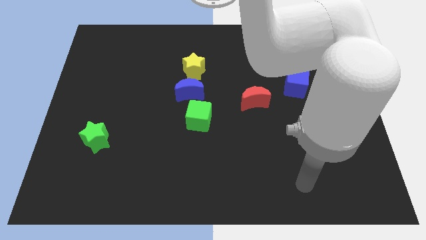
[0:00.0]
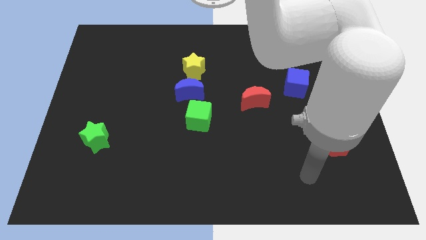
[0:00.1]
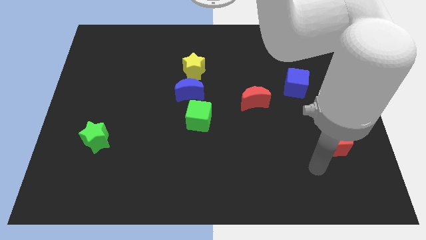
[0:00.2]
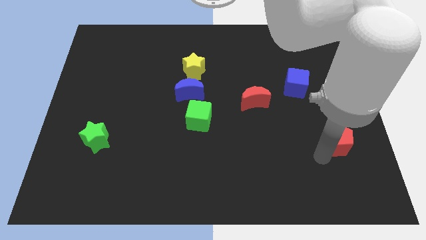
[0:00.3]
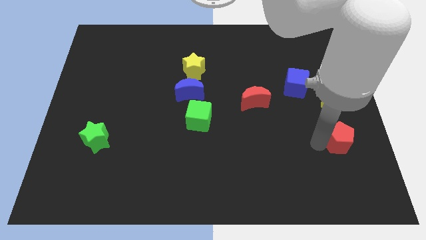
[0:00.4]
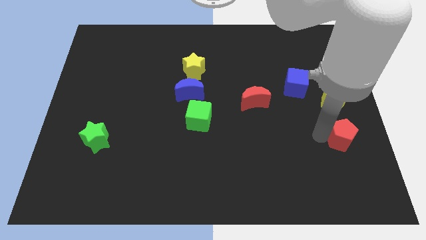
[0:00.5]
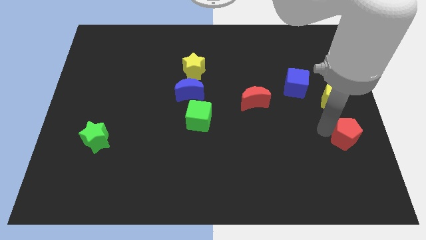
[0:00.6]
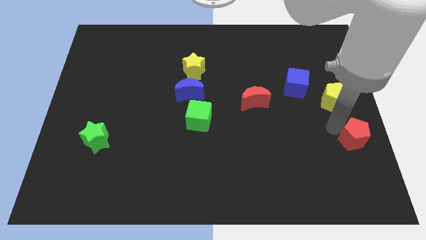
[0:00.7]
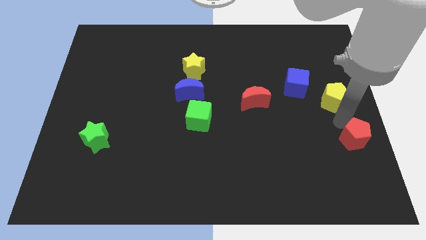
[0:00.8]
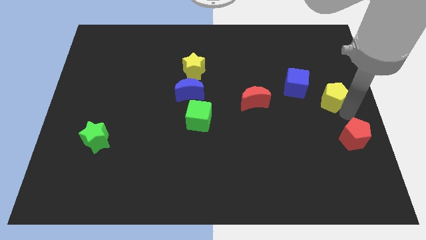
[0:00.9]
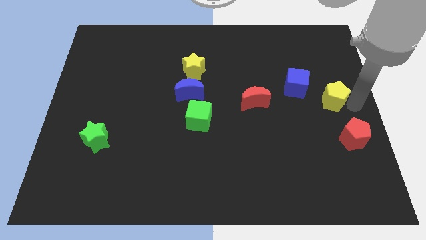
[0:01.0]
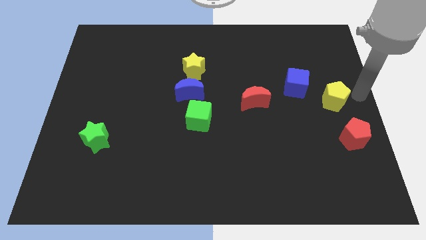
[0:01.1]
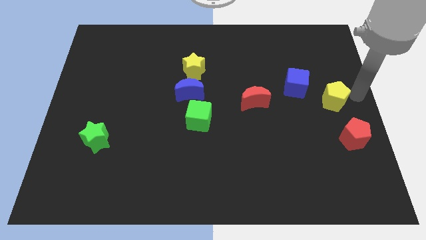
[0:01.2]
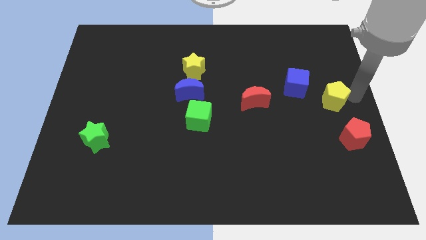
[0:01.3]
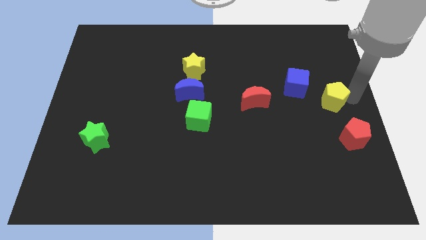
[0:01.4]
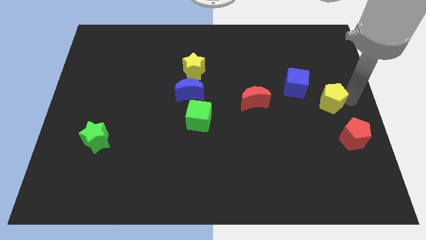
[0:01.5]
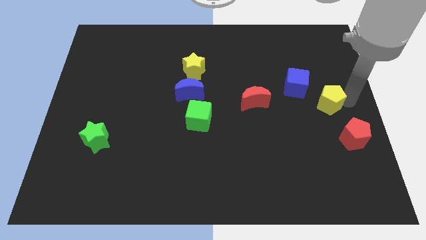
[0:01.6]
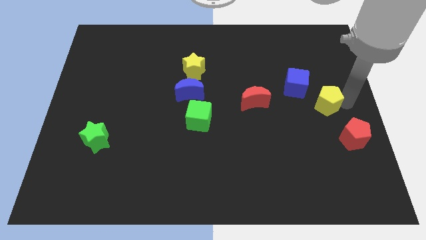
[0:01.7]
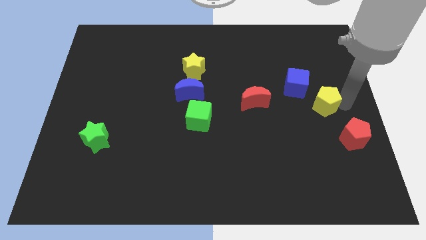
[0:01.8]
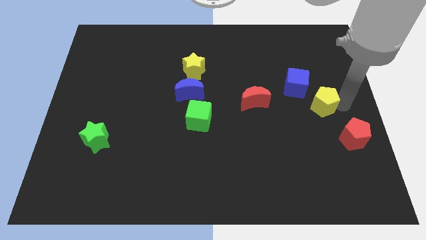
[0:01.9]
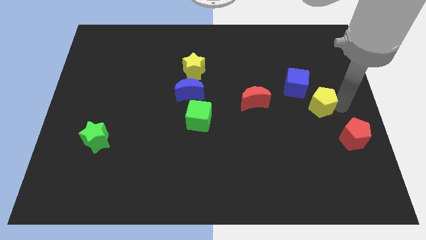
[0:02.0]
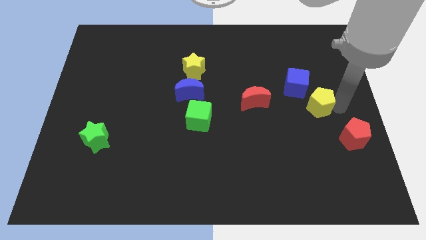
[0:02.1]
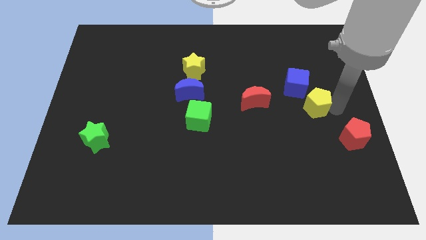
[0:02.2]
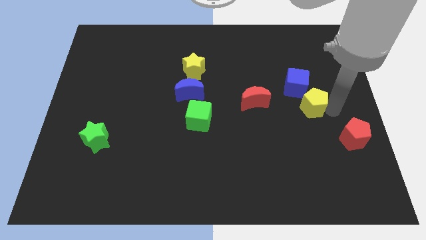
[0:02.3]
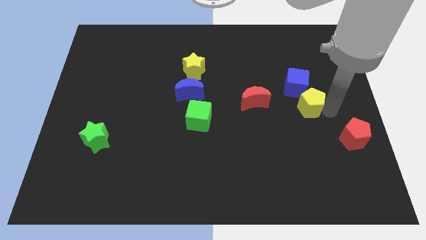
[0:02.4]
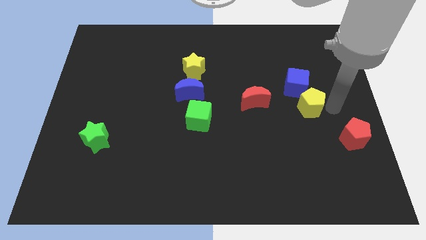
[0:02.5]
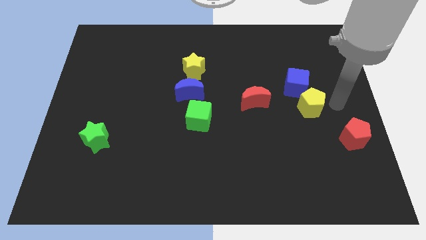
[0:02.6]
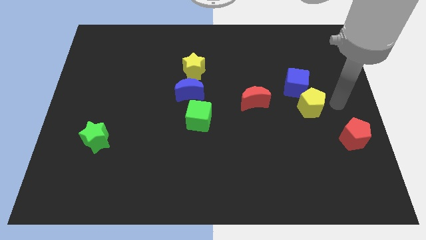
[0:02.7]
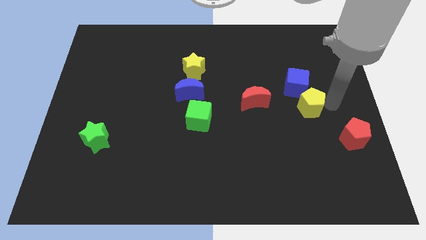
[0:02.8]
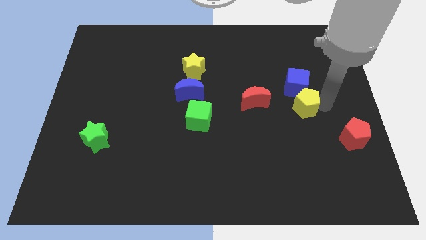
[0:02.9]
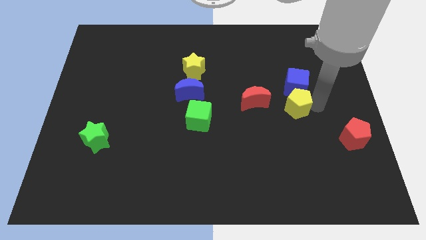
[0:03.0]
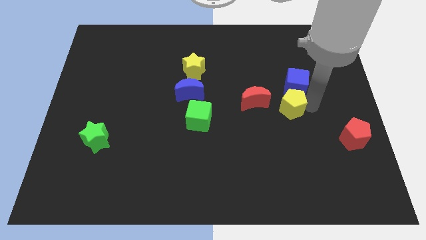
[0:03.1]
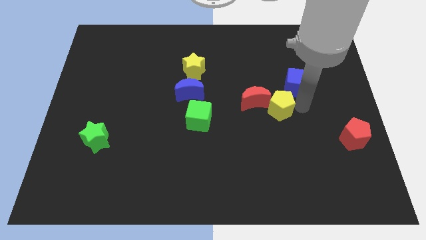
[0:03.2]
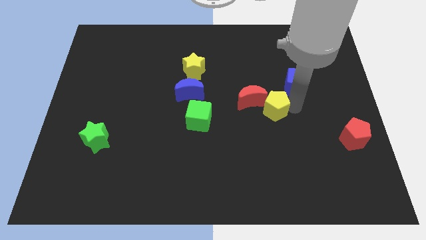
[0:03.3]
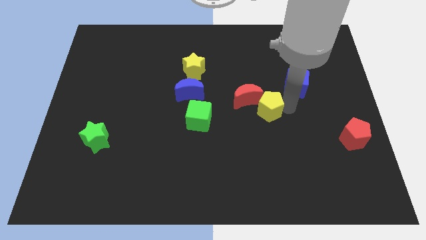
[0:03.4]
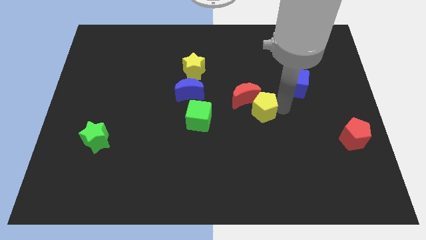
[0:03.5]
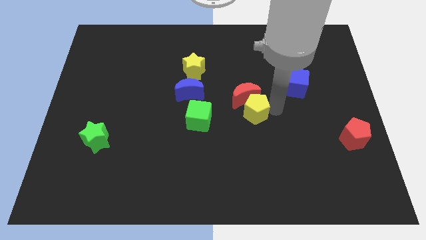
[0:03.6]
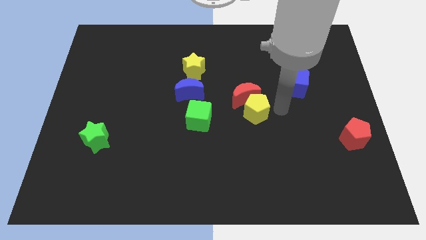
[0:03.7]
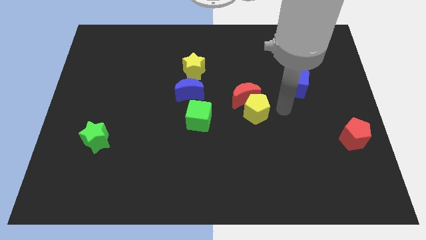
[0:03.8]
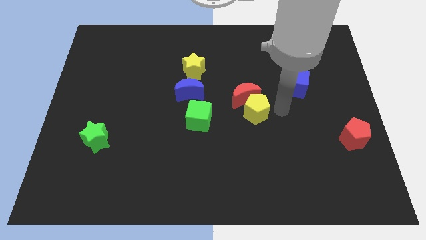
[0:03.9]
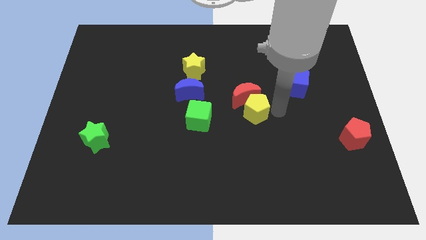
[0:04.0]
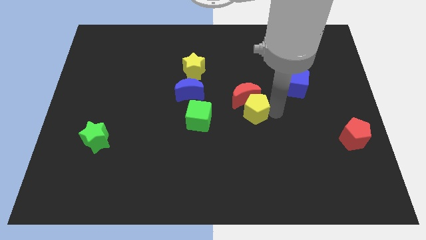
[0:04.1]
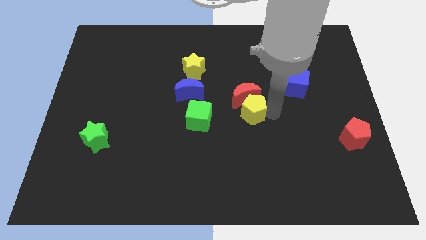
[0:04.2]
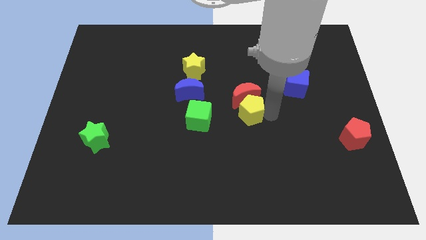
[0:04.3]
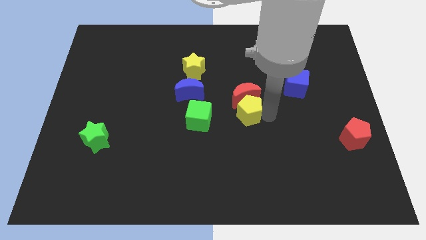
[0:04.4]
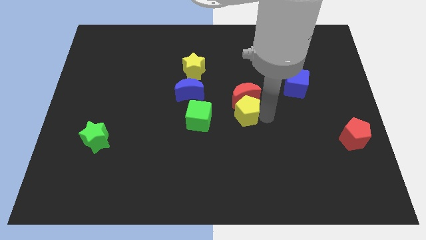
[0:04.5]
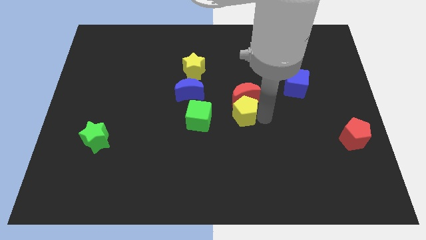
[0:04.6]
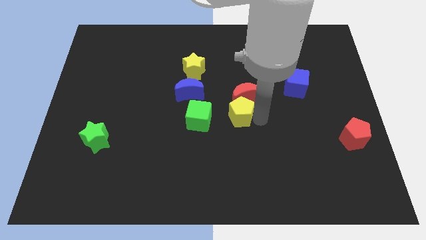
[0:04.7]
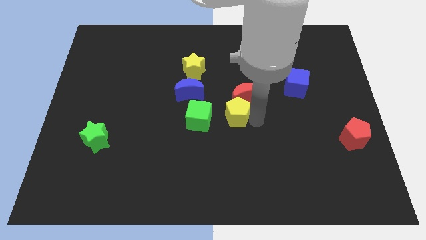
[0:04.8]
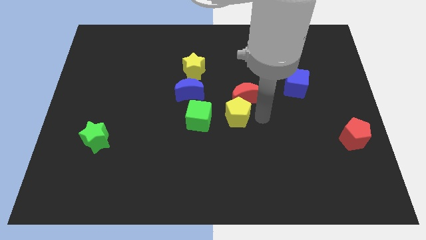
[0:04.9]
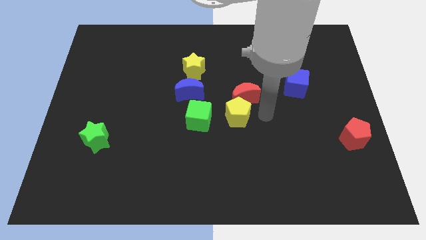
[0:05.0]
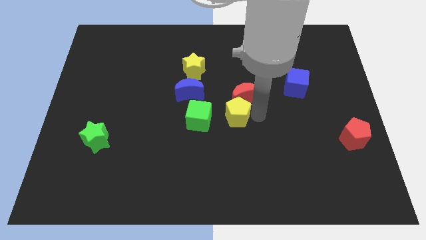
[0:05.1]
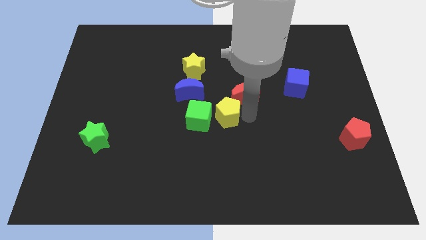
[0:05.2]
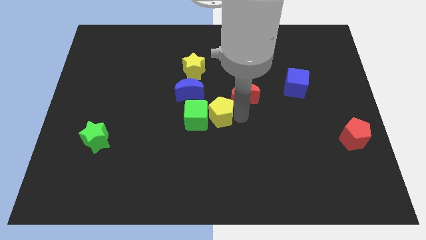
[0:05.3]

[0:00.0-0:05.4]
put the yellow pentagon close to the green cube

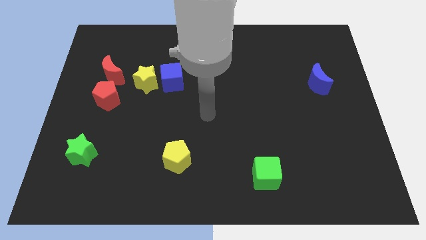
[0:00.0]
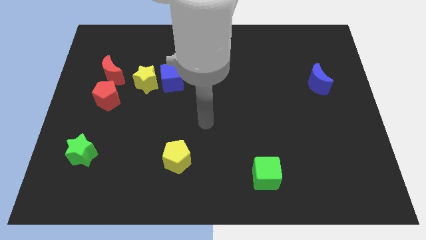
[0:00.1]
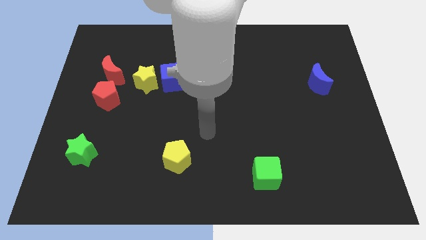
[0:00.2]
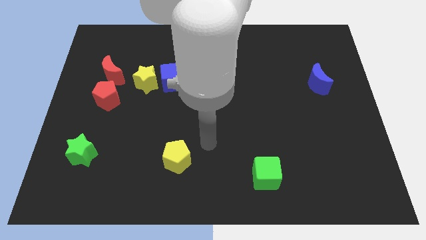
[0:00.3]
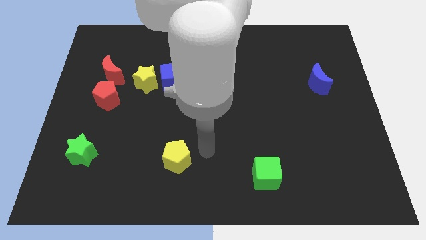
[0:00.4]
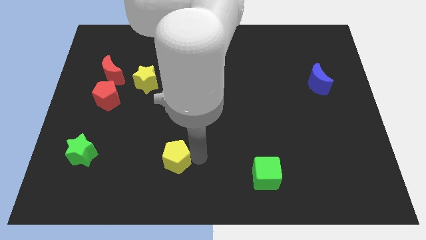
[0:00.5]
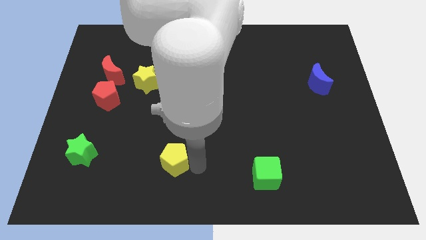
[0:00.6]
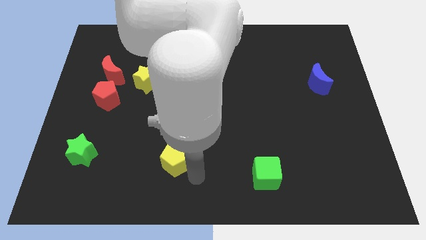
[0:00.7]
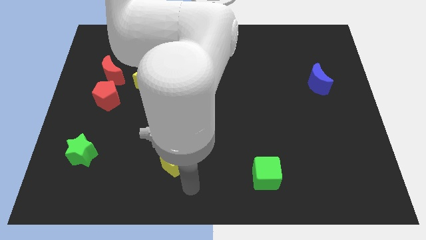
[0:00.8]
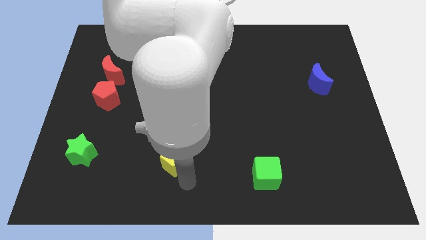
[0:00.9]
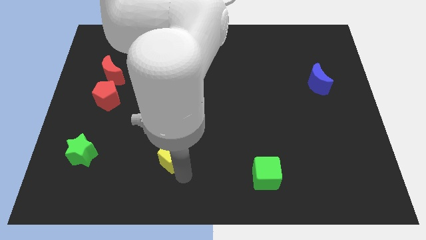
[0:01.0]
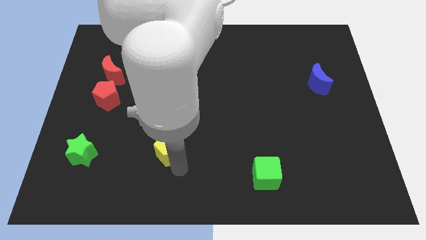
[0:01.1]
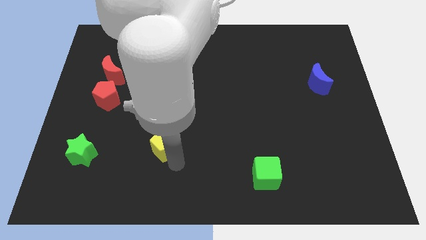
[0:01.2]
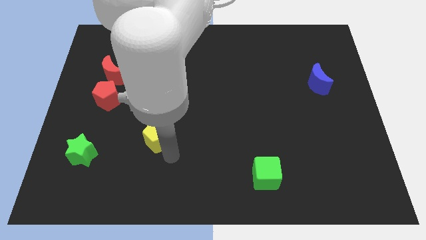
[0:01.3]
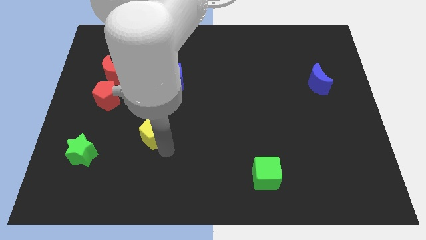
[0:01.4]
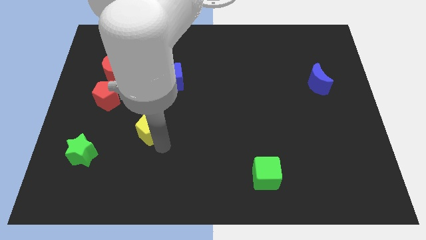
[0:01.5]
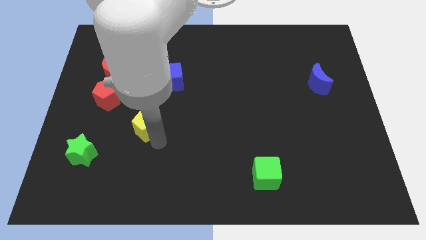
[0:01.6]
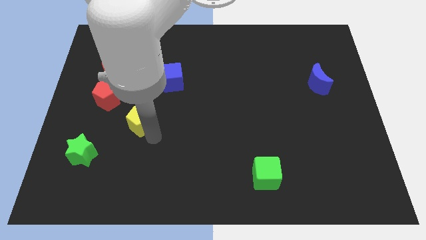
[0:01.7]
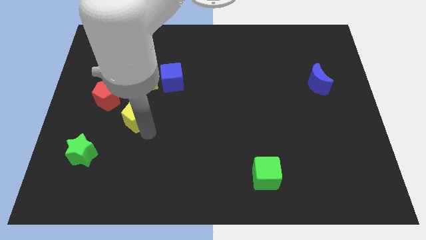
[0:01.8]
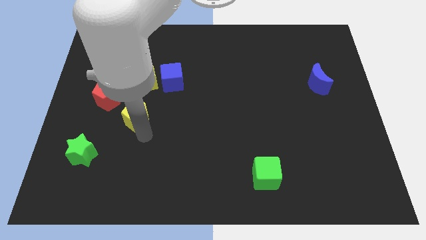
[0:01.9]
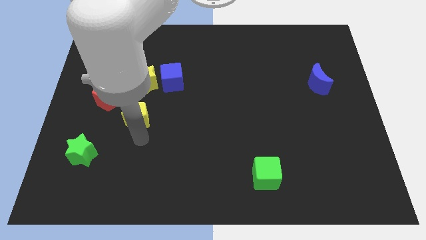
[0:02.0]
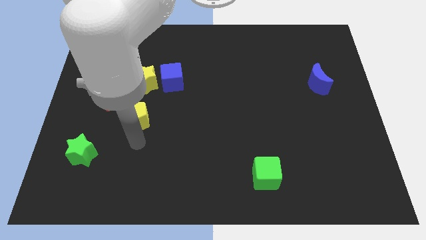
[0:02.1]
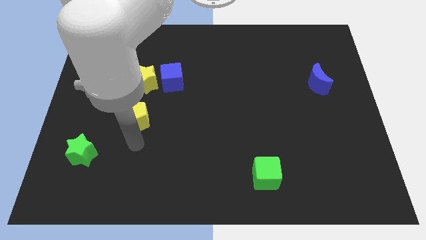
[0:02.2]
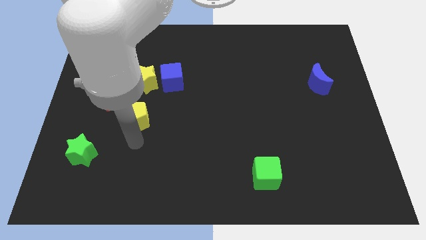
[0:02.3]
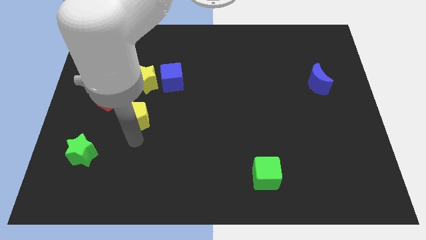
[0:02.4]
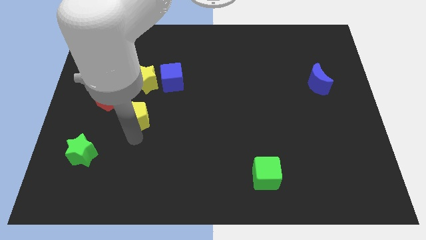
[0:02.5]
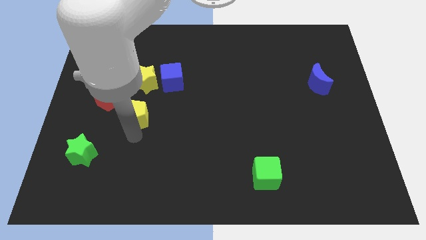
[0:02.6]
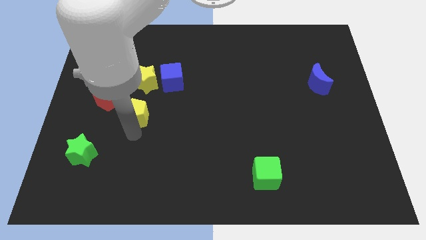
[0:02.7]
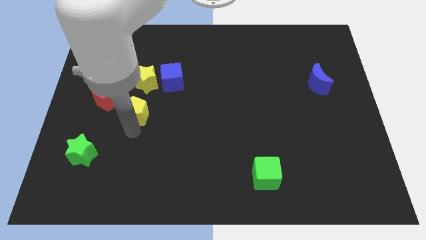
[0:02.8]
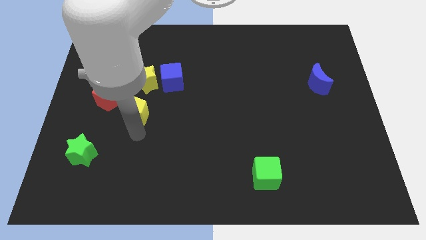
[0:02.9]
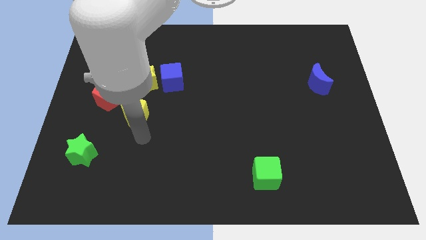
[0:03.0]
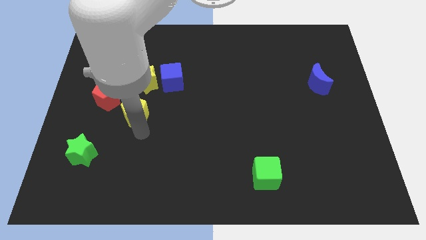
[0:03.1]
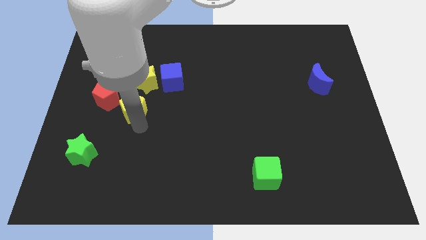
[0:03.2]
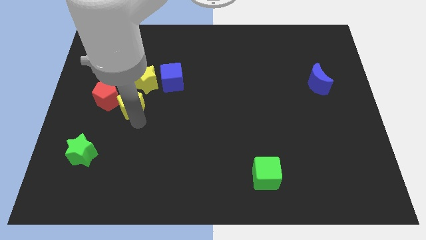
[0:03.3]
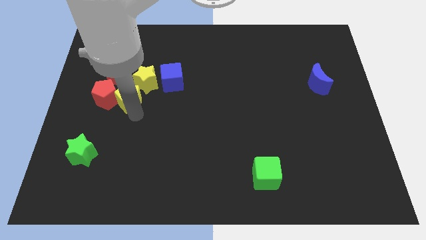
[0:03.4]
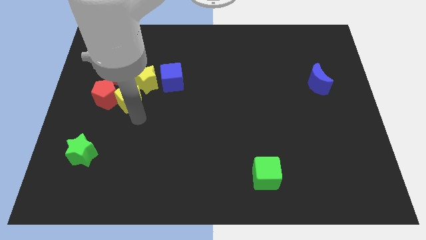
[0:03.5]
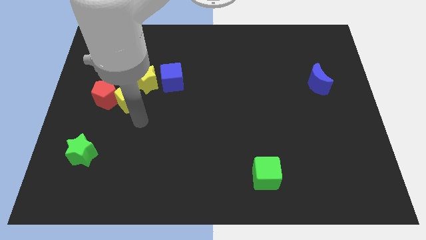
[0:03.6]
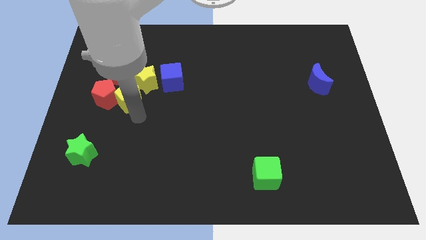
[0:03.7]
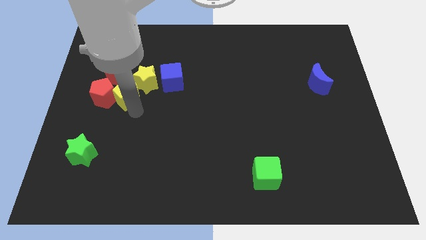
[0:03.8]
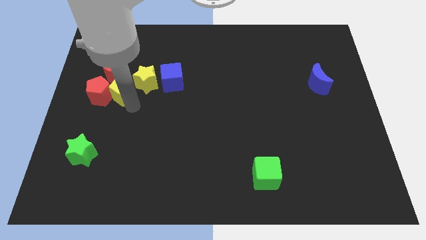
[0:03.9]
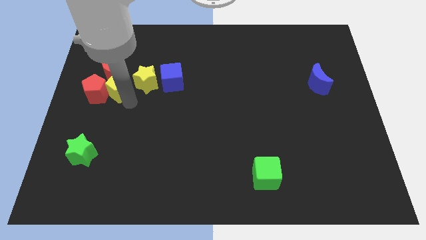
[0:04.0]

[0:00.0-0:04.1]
put the yellow pentagon next to the red moon
